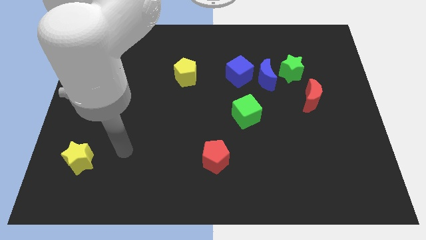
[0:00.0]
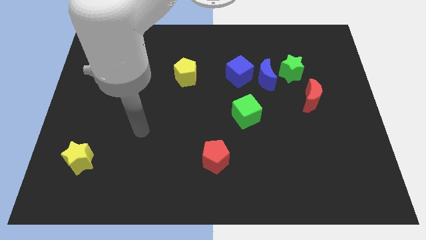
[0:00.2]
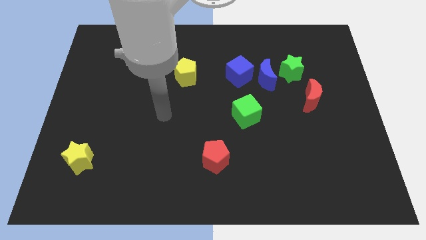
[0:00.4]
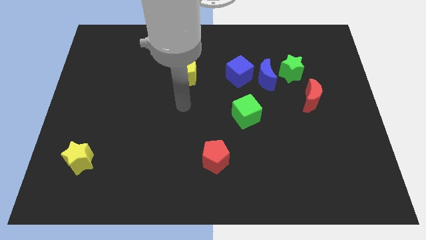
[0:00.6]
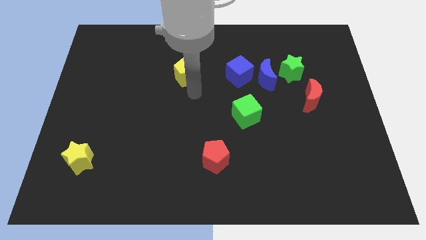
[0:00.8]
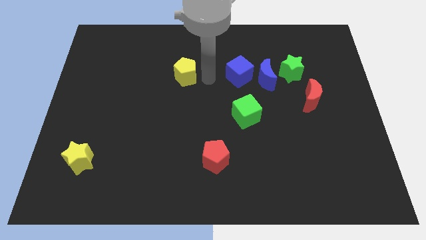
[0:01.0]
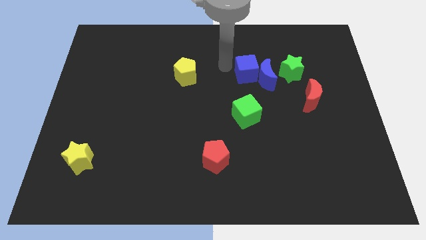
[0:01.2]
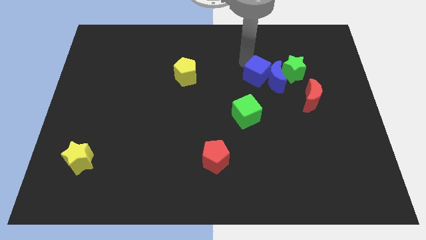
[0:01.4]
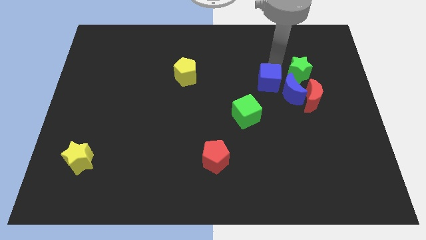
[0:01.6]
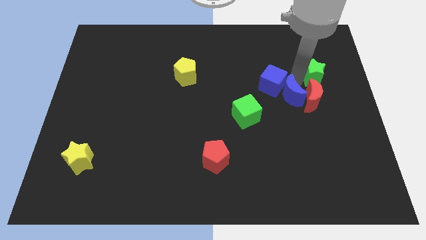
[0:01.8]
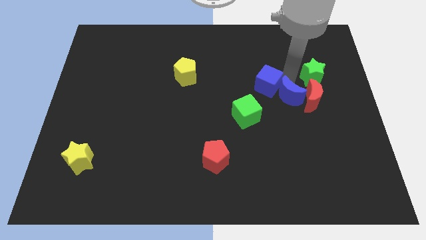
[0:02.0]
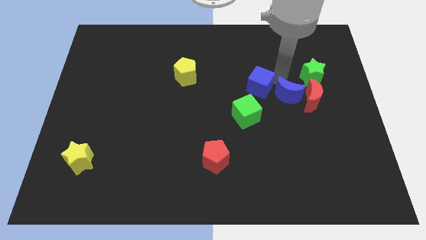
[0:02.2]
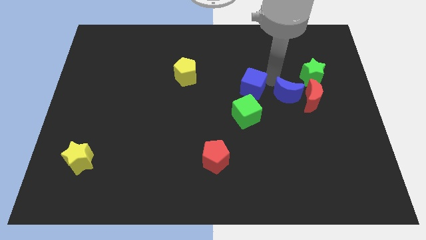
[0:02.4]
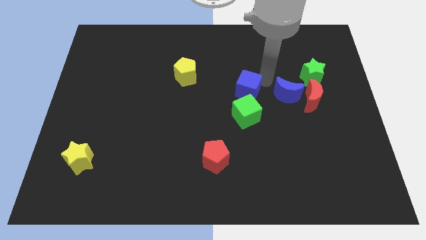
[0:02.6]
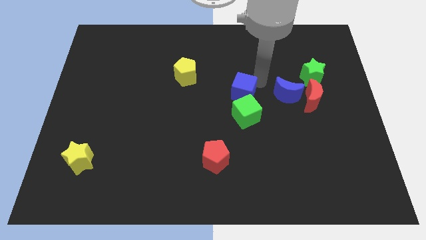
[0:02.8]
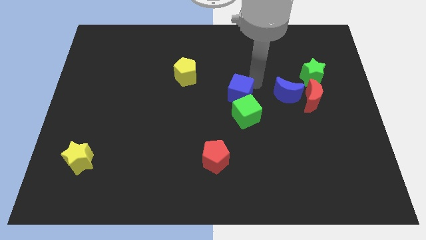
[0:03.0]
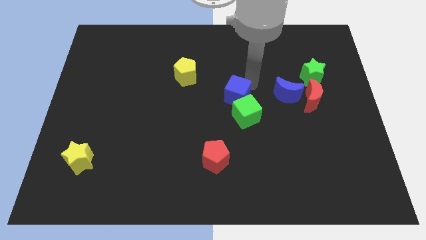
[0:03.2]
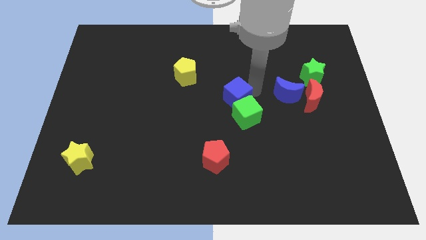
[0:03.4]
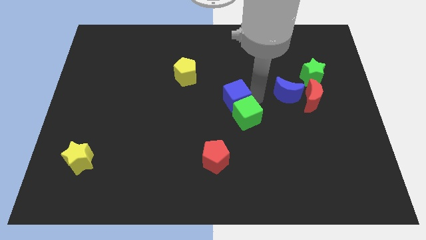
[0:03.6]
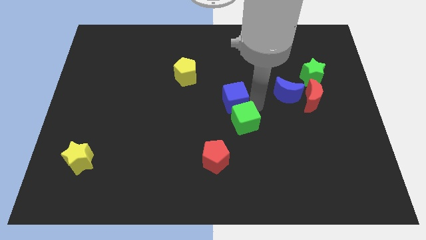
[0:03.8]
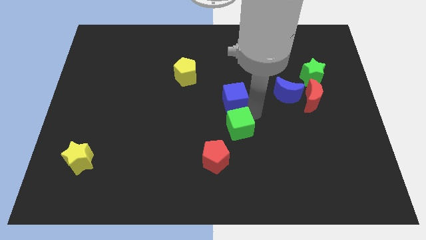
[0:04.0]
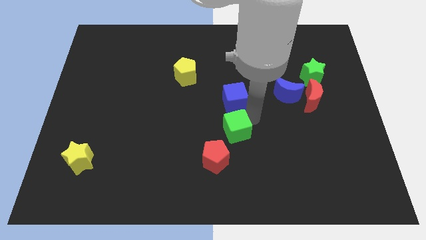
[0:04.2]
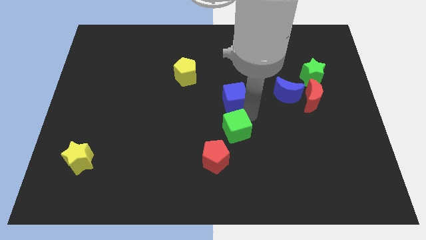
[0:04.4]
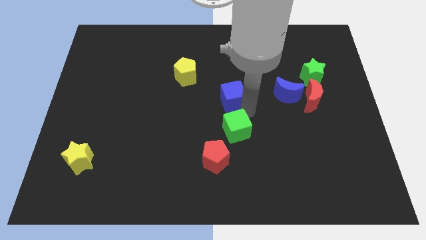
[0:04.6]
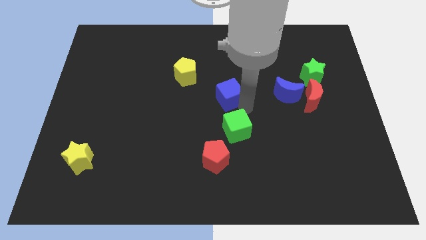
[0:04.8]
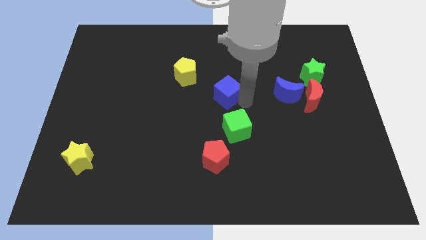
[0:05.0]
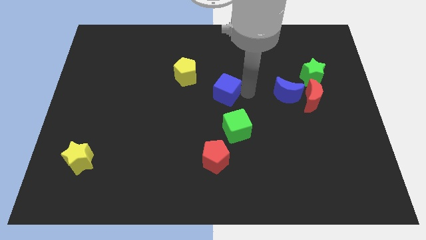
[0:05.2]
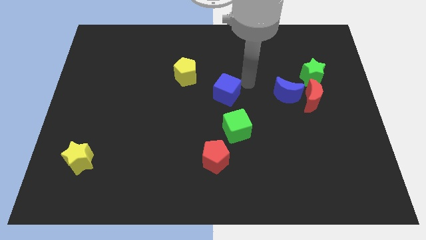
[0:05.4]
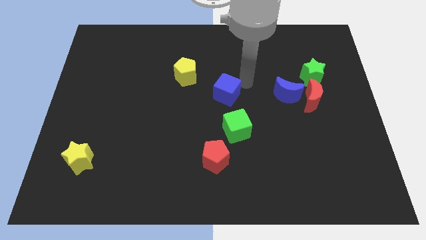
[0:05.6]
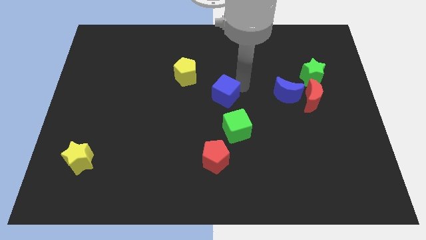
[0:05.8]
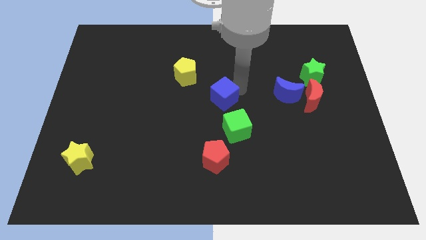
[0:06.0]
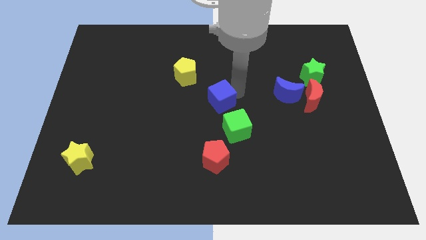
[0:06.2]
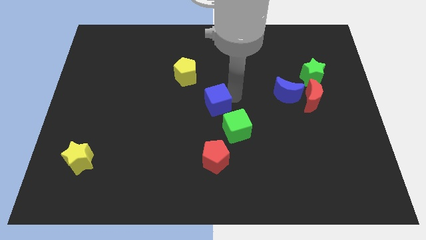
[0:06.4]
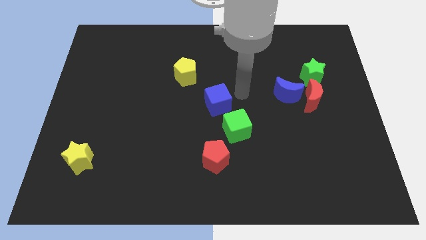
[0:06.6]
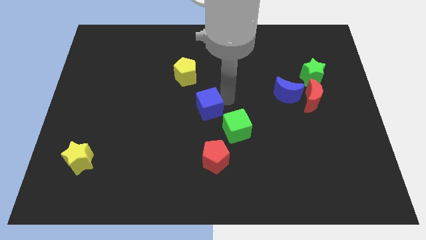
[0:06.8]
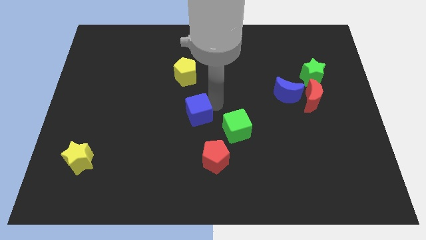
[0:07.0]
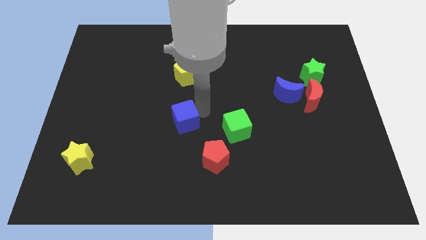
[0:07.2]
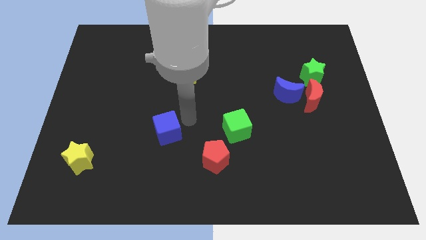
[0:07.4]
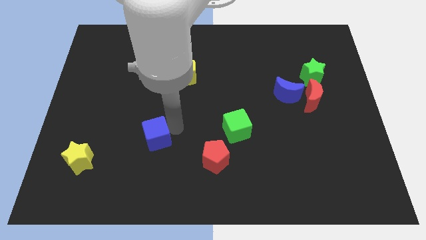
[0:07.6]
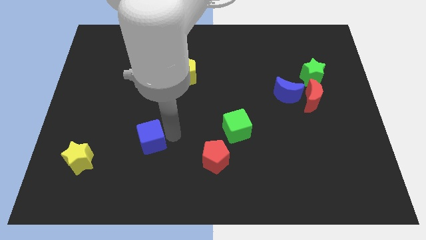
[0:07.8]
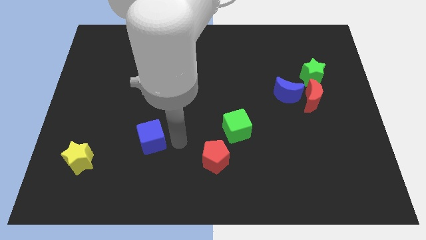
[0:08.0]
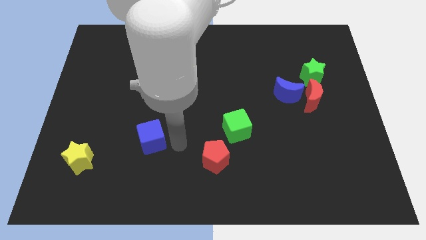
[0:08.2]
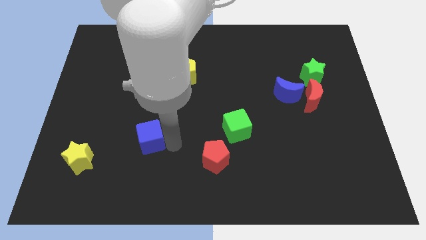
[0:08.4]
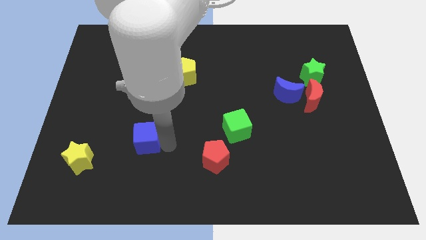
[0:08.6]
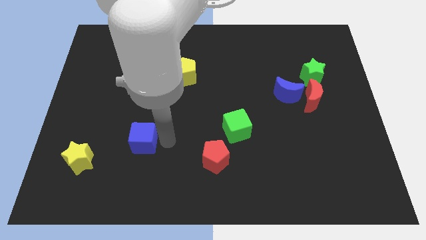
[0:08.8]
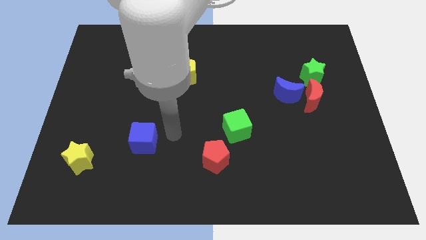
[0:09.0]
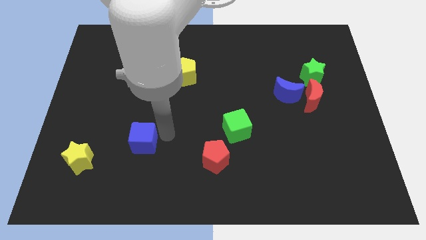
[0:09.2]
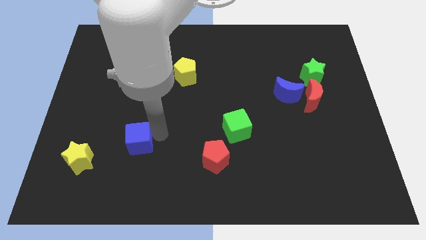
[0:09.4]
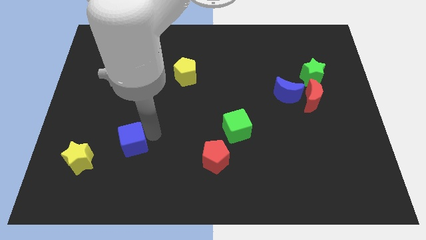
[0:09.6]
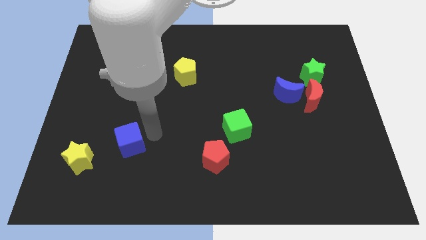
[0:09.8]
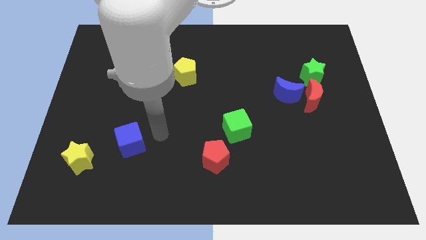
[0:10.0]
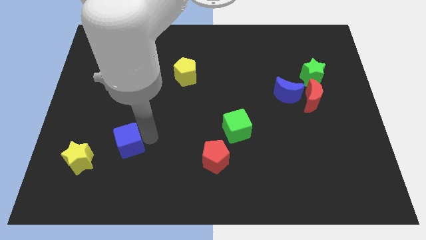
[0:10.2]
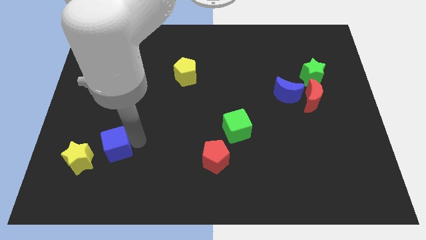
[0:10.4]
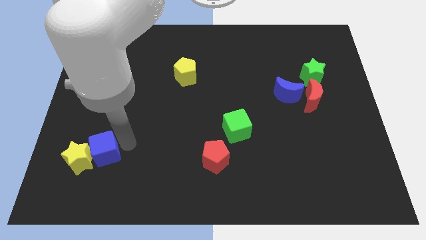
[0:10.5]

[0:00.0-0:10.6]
push the blue cube to the yellow star

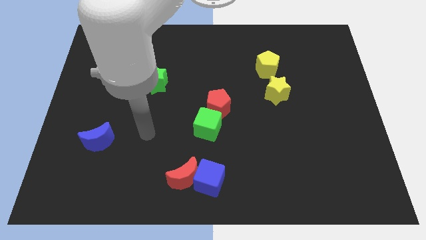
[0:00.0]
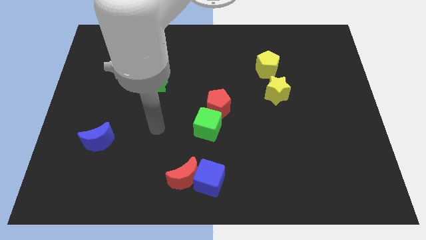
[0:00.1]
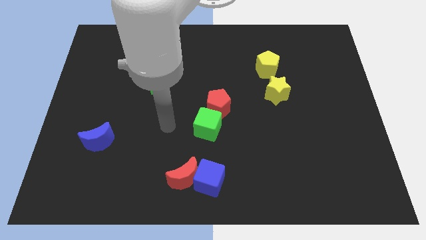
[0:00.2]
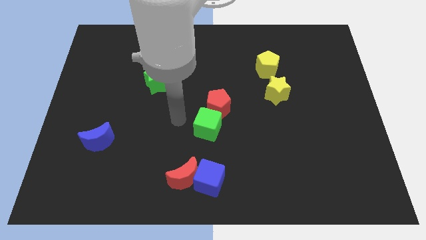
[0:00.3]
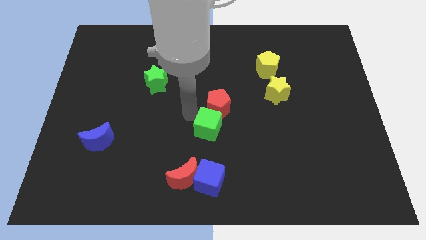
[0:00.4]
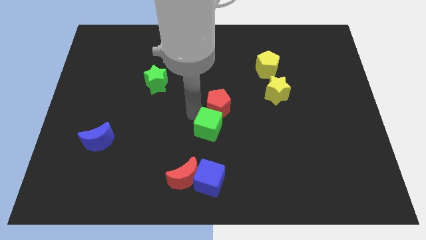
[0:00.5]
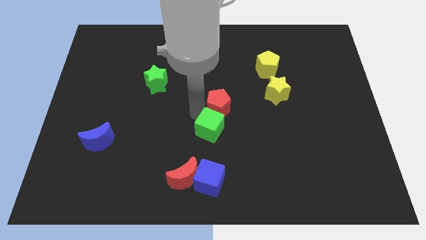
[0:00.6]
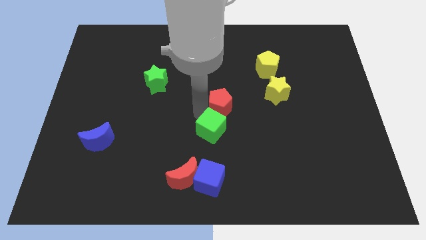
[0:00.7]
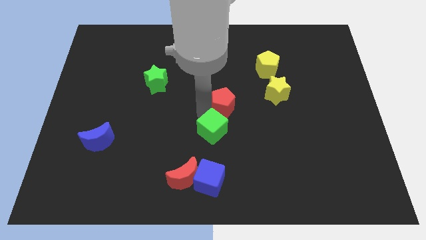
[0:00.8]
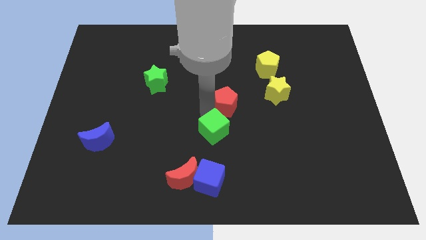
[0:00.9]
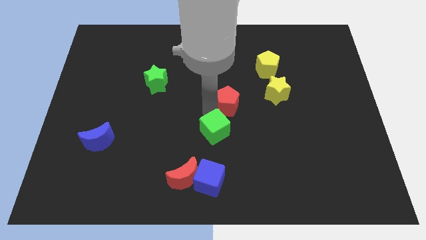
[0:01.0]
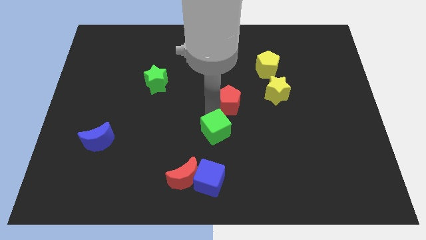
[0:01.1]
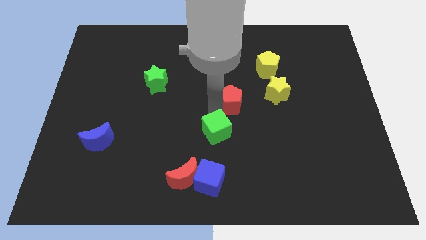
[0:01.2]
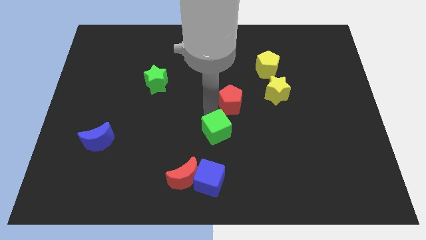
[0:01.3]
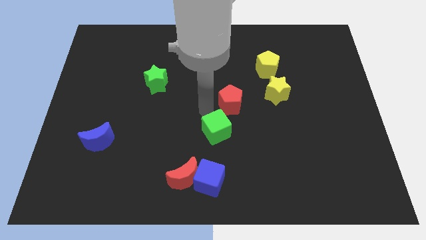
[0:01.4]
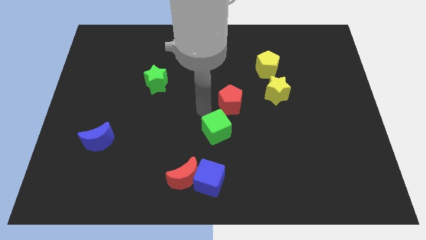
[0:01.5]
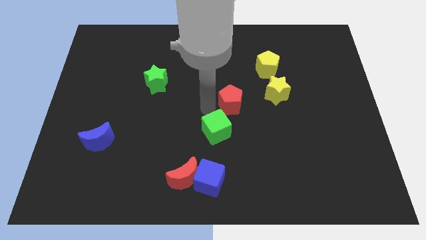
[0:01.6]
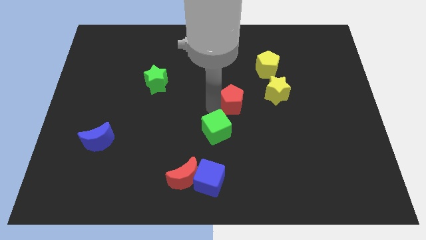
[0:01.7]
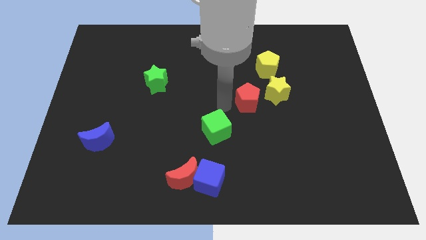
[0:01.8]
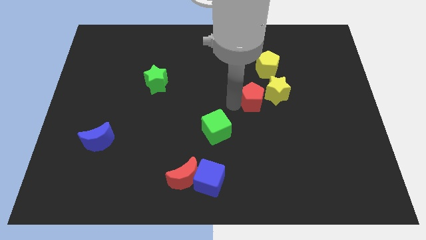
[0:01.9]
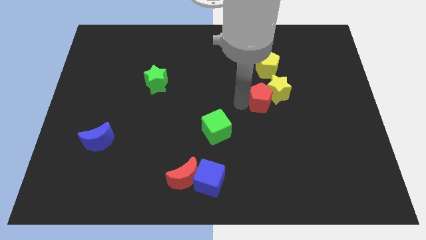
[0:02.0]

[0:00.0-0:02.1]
slide the red pentagon to the yellow star

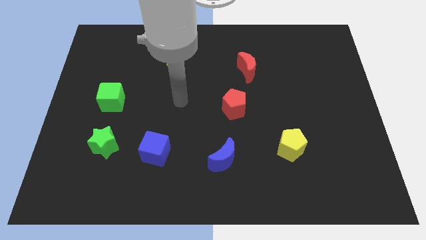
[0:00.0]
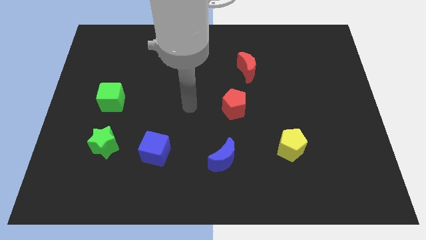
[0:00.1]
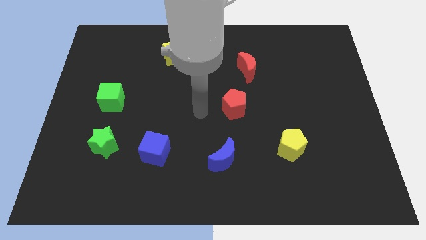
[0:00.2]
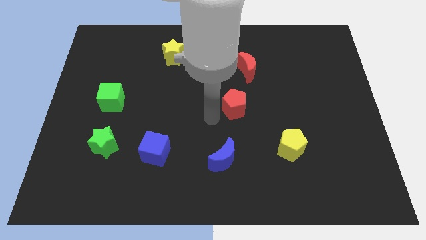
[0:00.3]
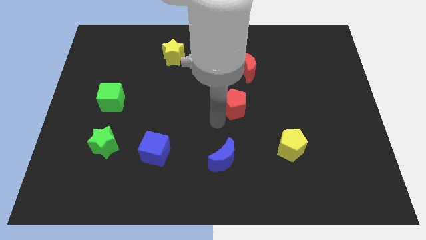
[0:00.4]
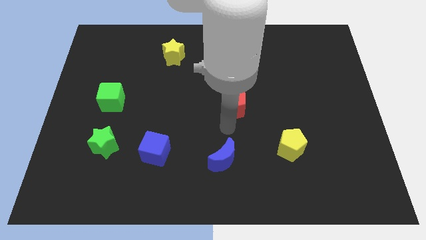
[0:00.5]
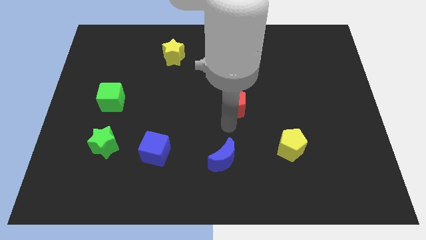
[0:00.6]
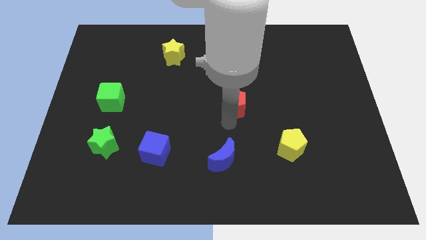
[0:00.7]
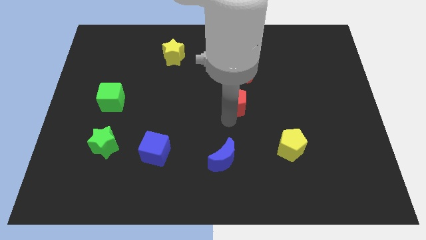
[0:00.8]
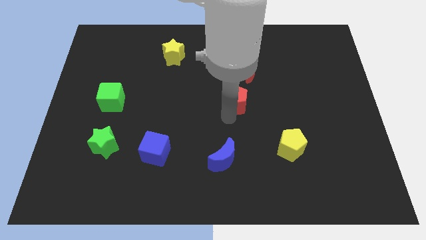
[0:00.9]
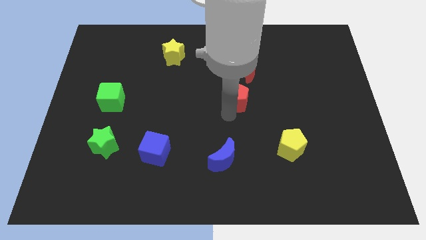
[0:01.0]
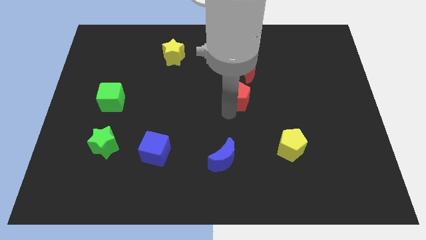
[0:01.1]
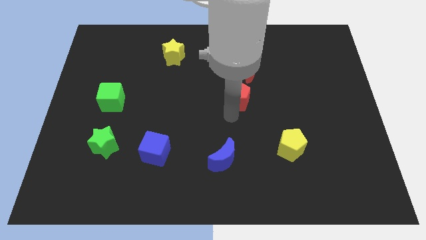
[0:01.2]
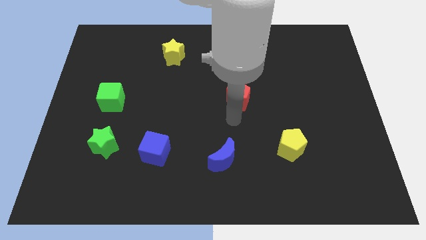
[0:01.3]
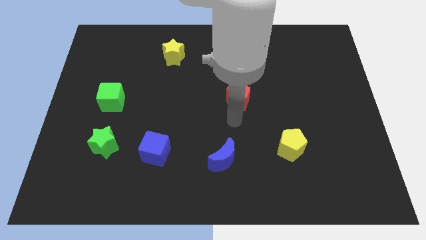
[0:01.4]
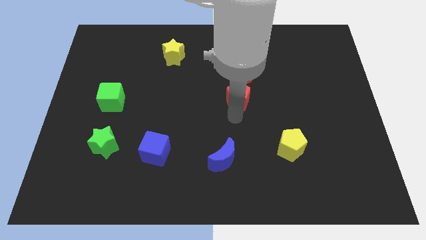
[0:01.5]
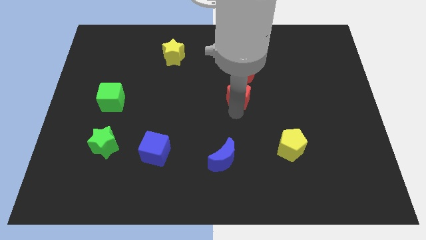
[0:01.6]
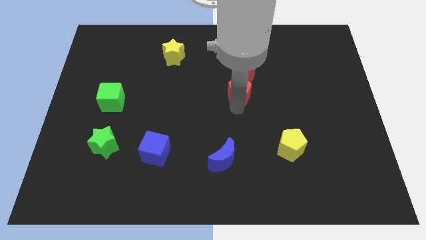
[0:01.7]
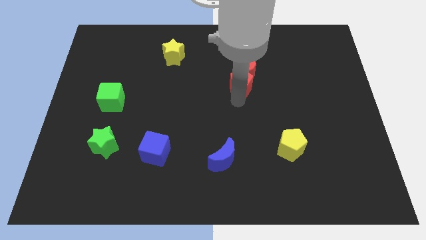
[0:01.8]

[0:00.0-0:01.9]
push the red pentagon to the red moon
